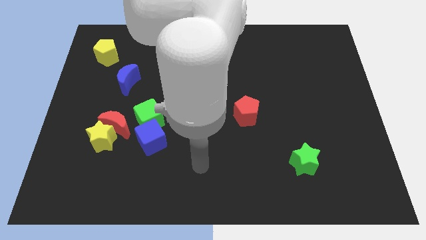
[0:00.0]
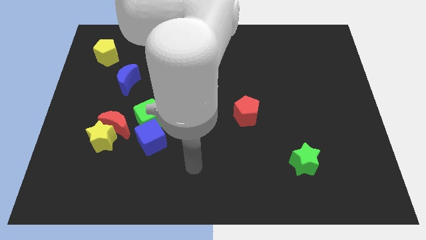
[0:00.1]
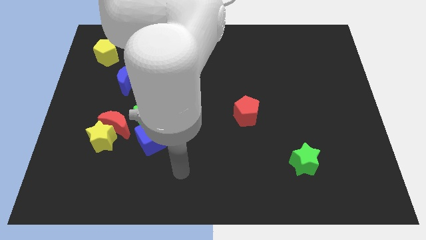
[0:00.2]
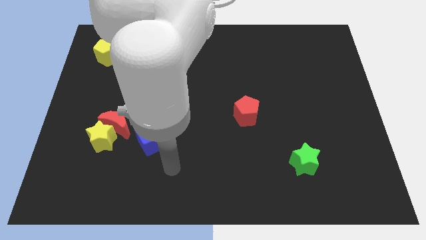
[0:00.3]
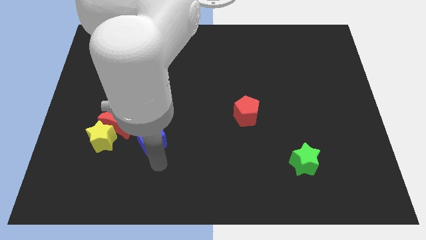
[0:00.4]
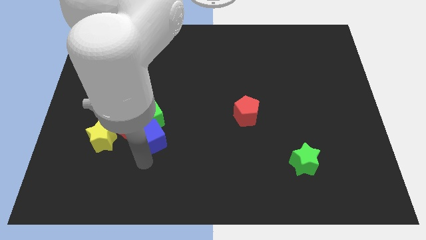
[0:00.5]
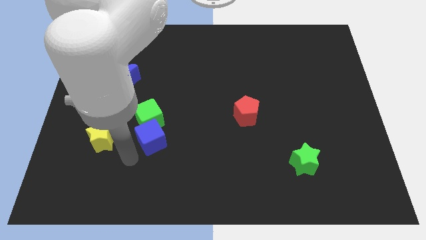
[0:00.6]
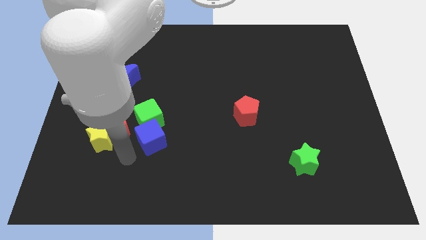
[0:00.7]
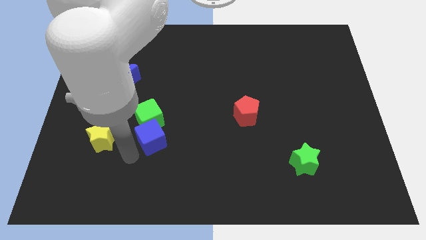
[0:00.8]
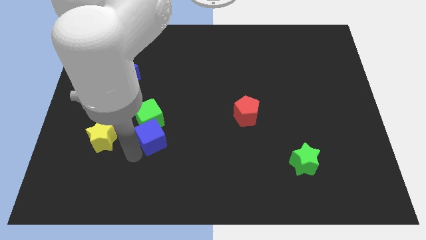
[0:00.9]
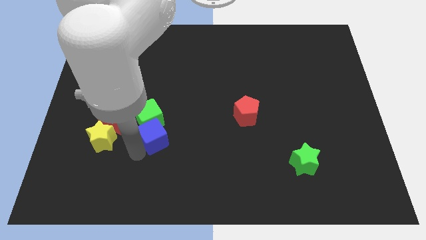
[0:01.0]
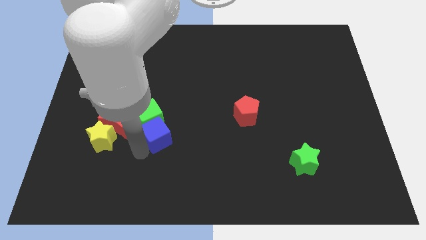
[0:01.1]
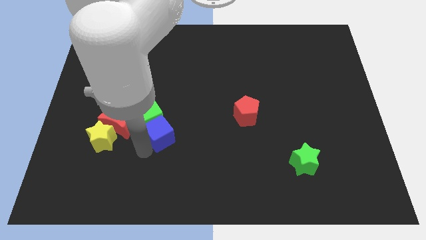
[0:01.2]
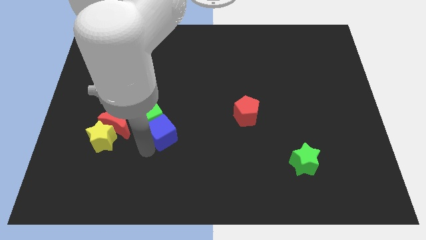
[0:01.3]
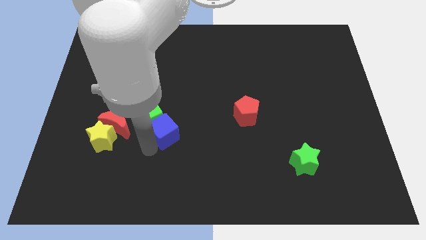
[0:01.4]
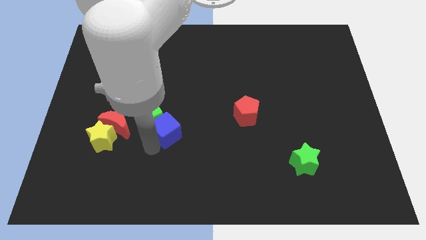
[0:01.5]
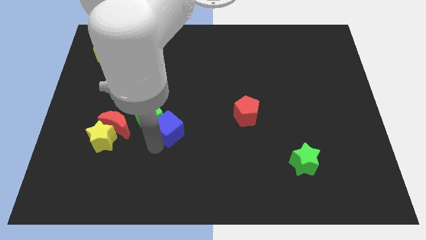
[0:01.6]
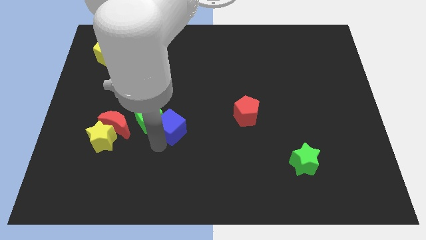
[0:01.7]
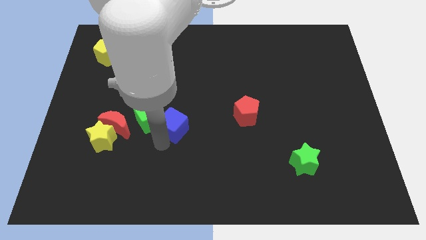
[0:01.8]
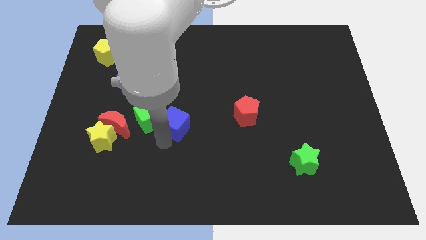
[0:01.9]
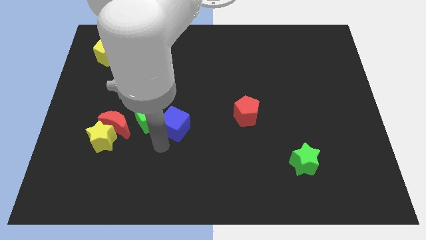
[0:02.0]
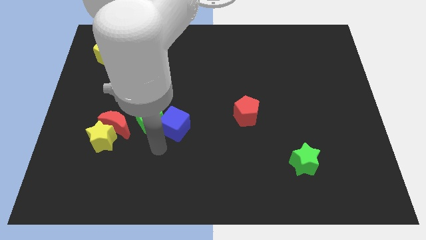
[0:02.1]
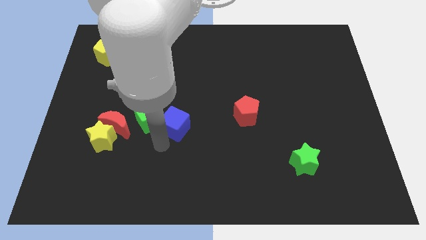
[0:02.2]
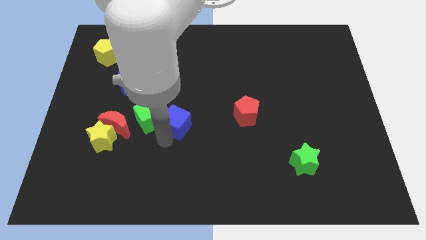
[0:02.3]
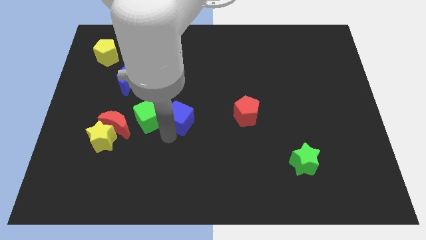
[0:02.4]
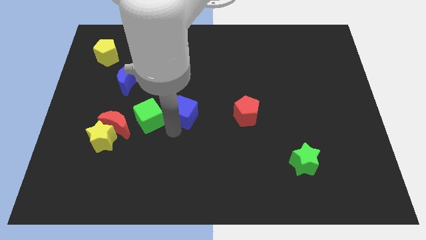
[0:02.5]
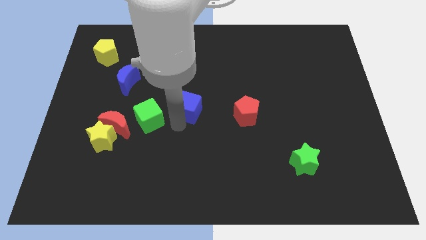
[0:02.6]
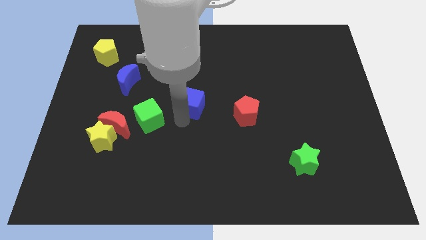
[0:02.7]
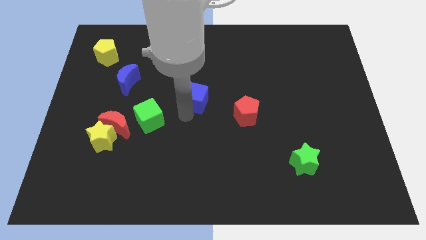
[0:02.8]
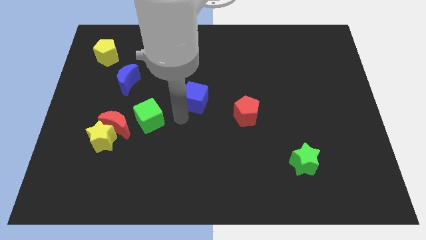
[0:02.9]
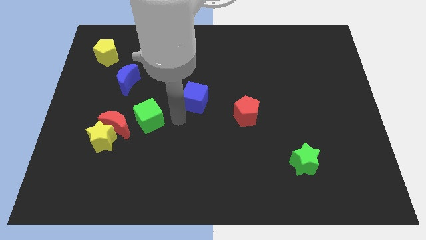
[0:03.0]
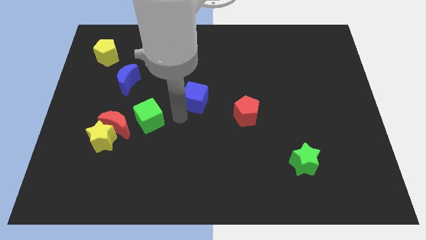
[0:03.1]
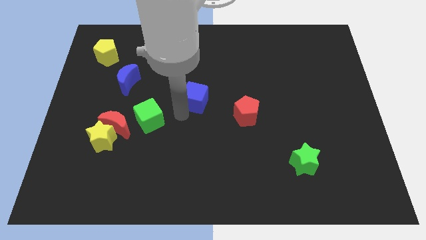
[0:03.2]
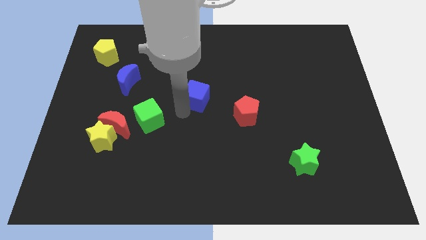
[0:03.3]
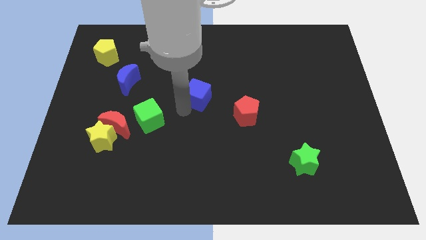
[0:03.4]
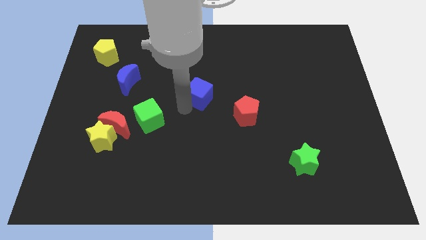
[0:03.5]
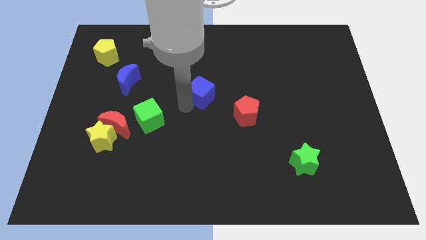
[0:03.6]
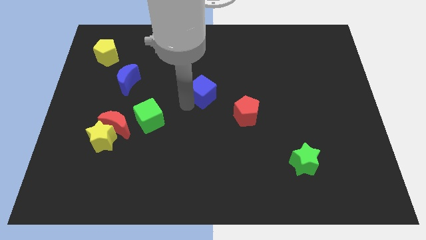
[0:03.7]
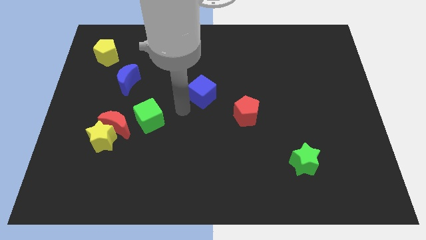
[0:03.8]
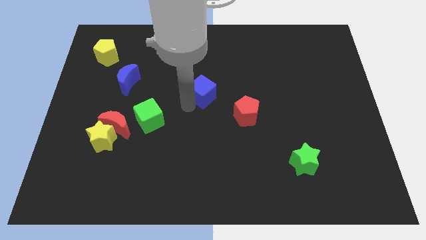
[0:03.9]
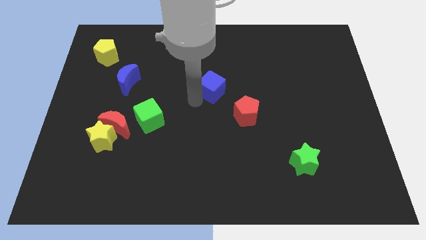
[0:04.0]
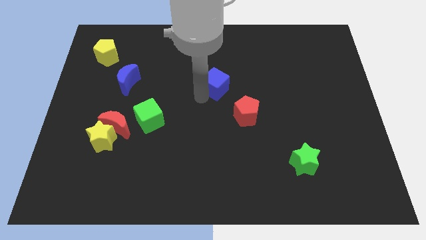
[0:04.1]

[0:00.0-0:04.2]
move the blue cube diagonally upwards and to the right

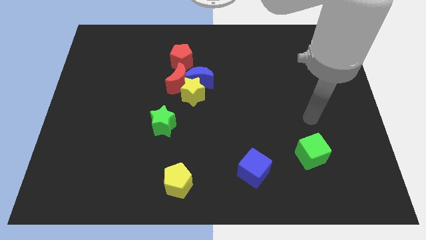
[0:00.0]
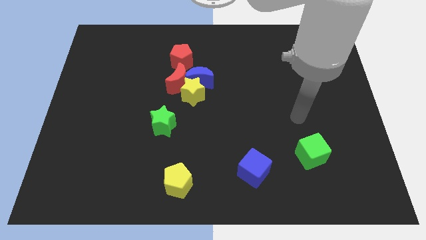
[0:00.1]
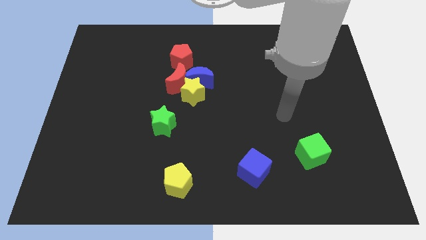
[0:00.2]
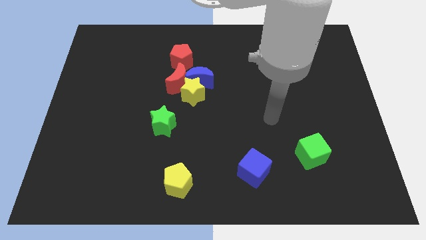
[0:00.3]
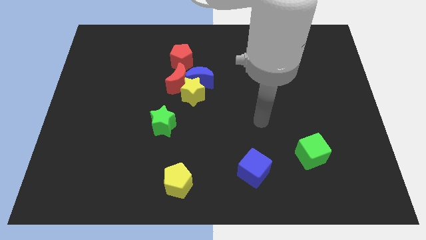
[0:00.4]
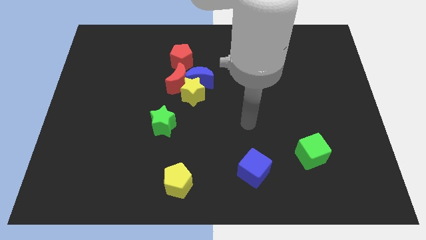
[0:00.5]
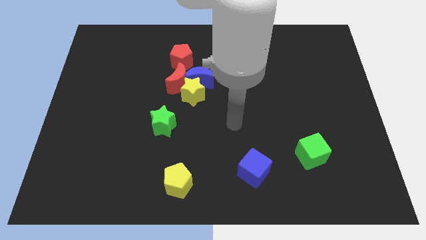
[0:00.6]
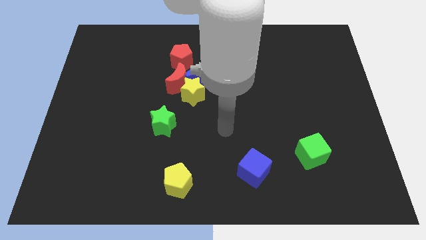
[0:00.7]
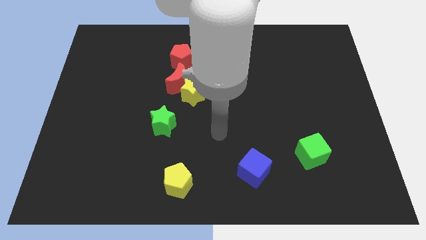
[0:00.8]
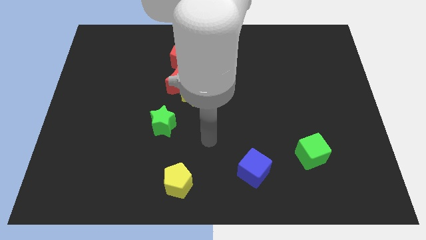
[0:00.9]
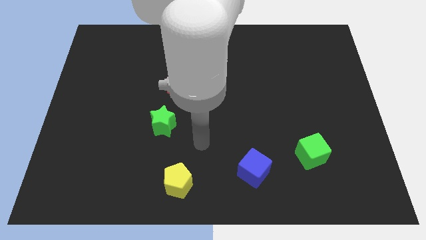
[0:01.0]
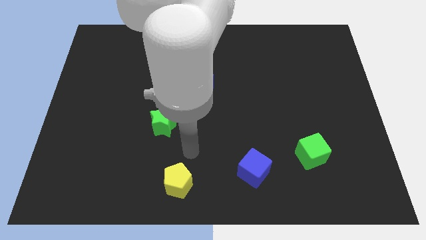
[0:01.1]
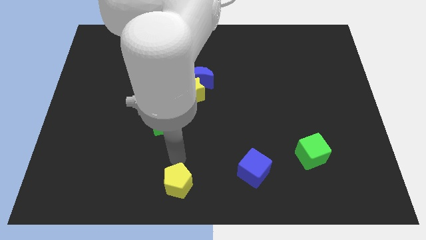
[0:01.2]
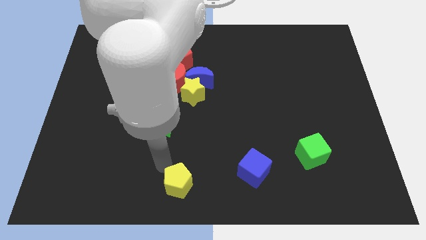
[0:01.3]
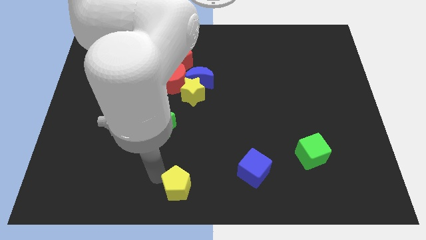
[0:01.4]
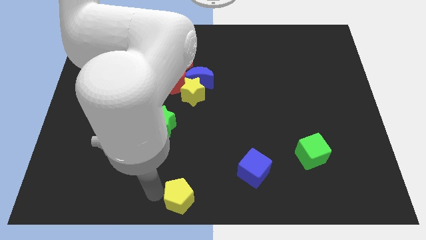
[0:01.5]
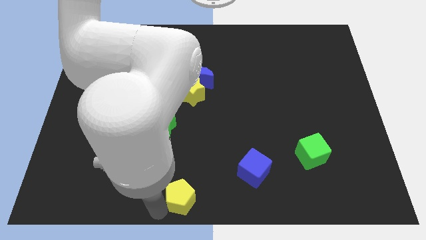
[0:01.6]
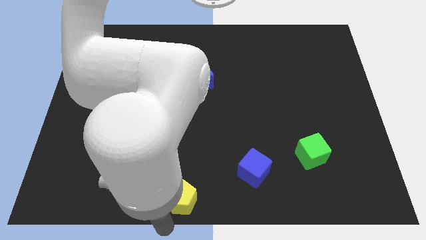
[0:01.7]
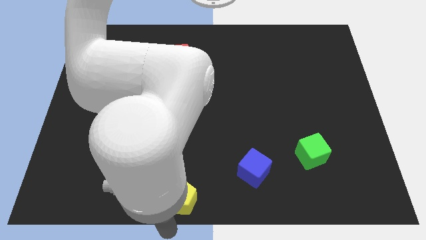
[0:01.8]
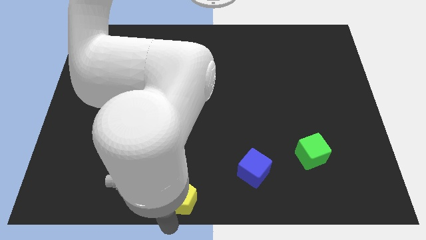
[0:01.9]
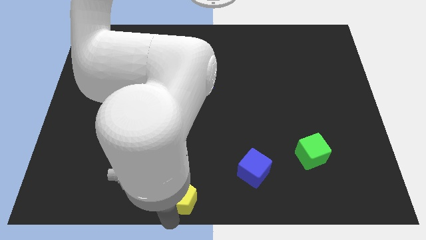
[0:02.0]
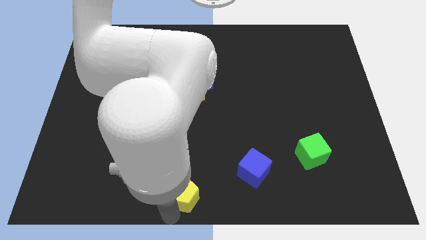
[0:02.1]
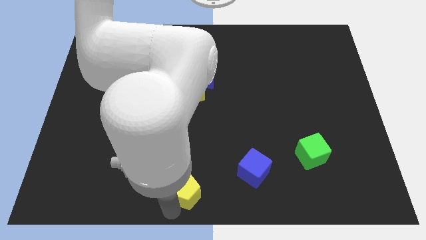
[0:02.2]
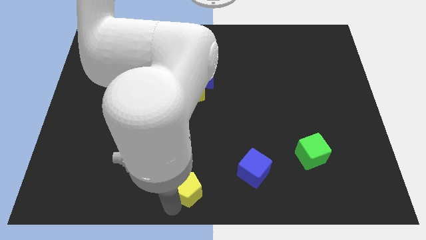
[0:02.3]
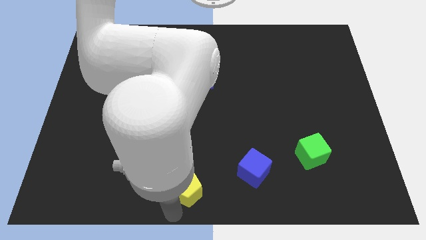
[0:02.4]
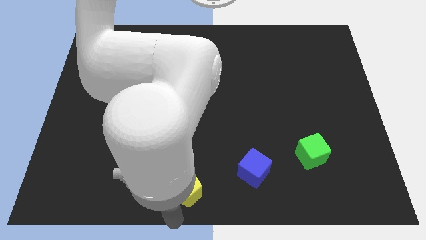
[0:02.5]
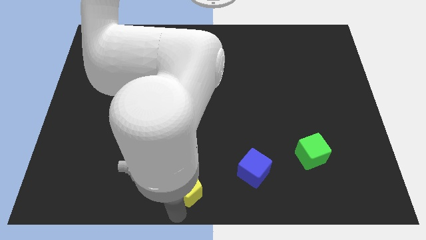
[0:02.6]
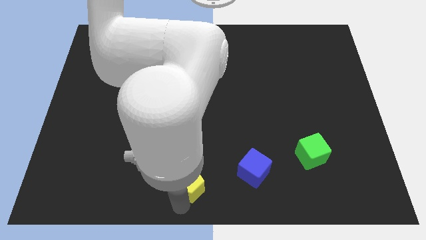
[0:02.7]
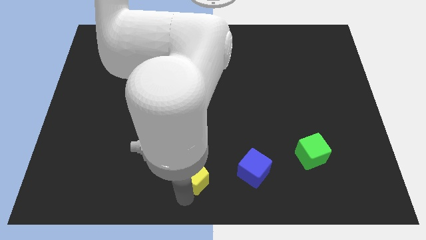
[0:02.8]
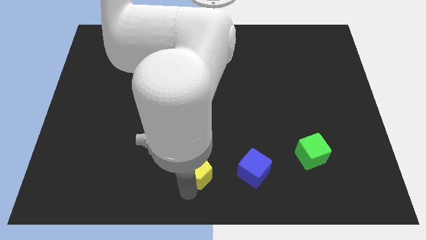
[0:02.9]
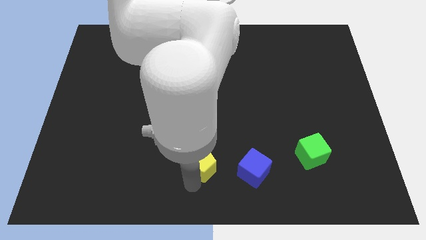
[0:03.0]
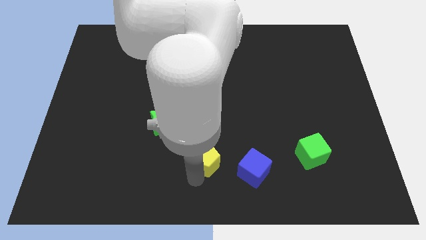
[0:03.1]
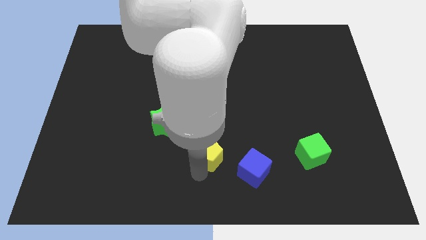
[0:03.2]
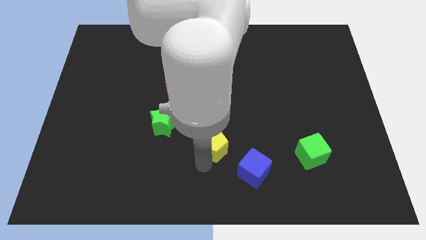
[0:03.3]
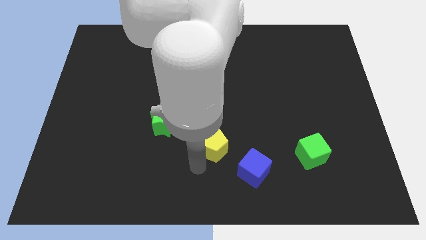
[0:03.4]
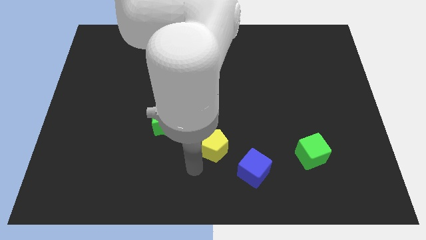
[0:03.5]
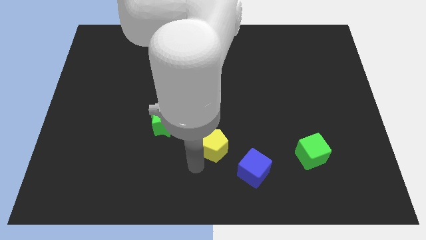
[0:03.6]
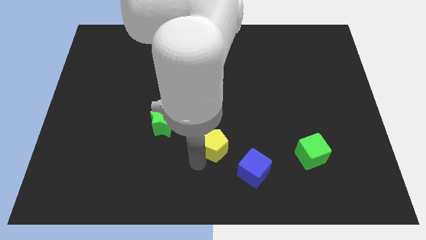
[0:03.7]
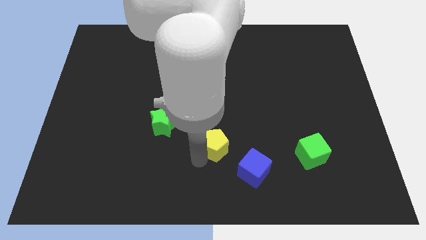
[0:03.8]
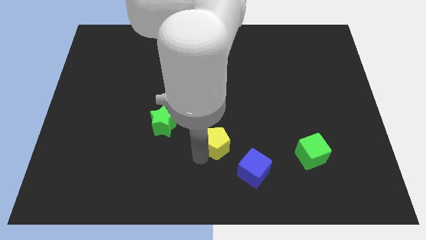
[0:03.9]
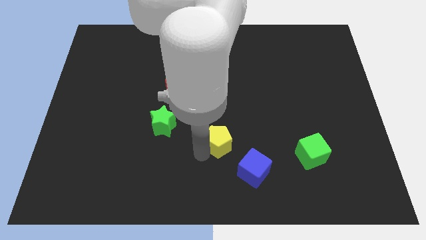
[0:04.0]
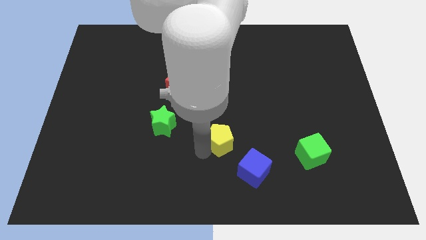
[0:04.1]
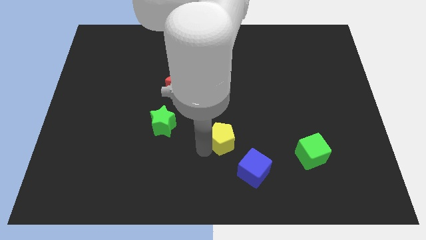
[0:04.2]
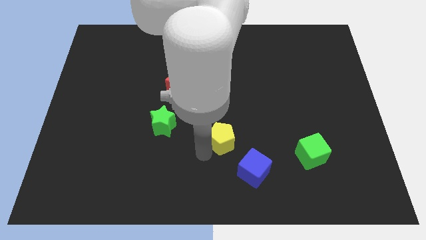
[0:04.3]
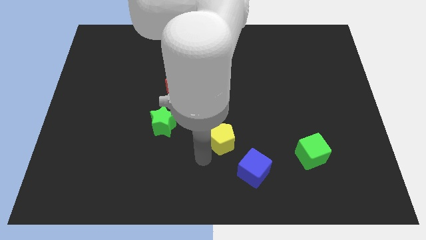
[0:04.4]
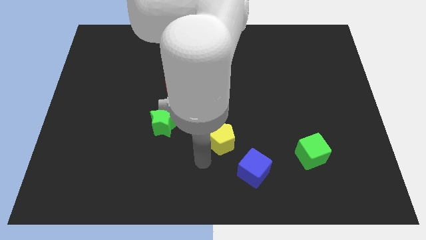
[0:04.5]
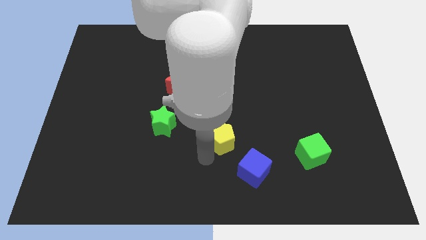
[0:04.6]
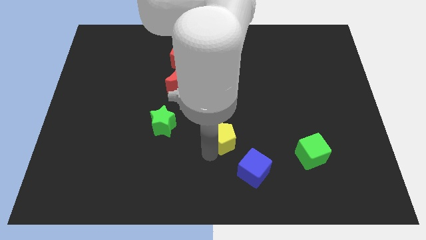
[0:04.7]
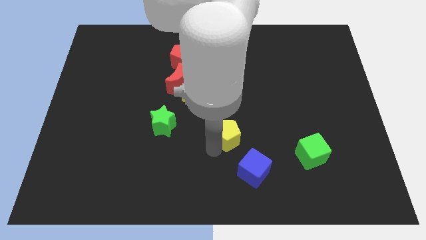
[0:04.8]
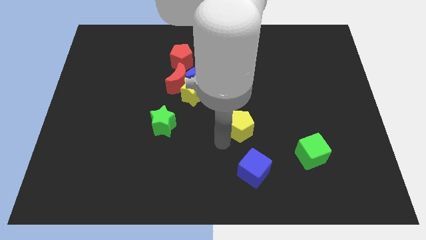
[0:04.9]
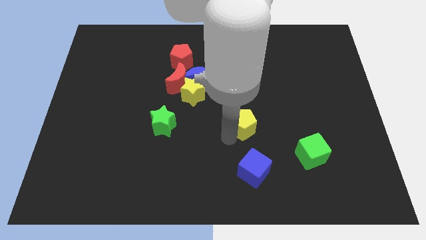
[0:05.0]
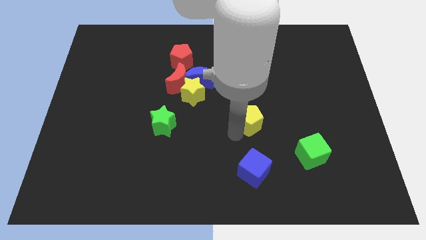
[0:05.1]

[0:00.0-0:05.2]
move the yellow pentagon up and to the right diagonally
